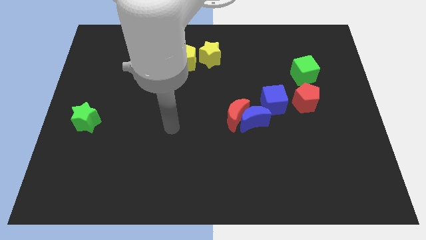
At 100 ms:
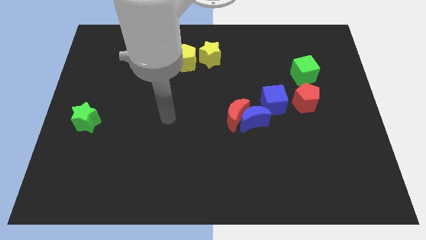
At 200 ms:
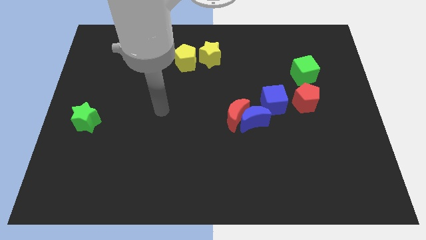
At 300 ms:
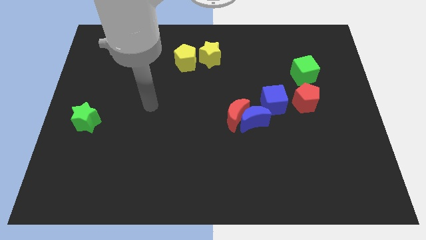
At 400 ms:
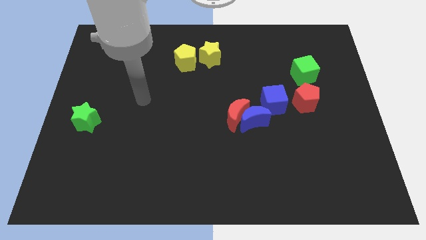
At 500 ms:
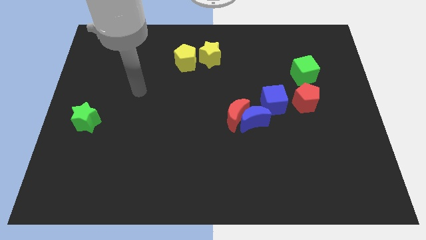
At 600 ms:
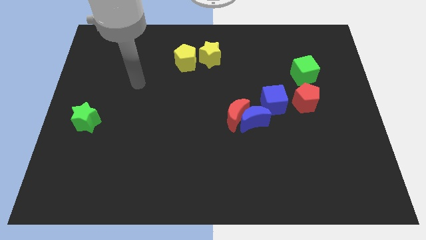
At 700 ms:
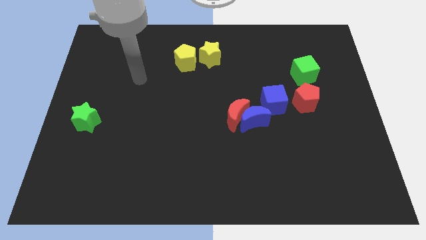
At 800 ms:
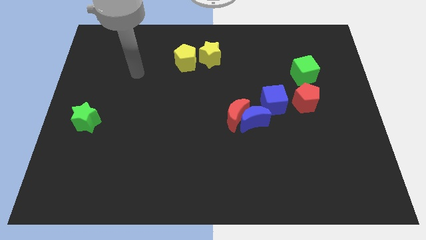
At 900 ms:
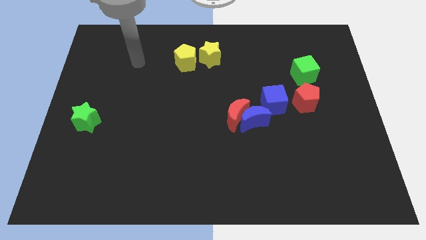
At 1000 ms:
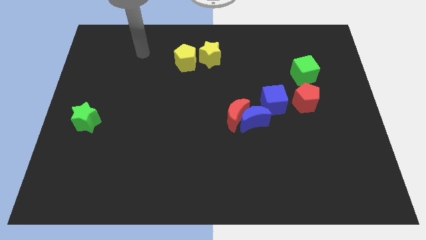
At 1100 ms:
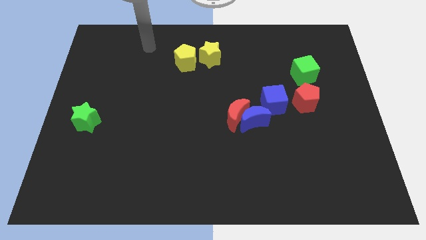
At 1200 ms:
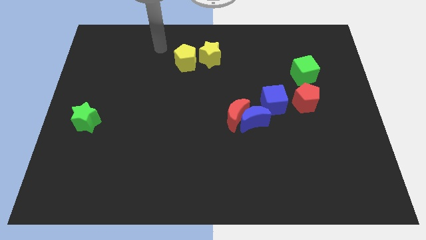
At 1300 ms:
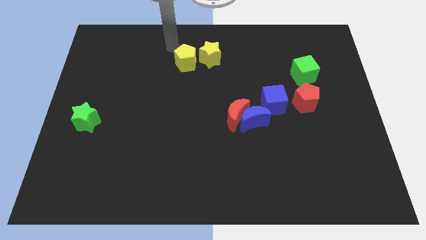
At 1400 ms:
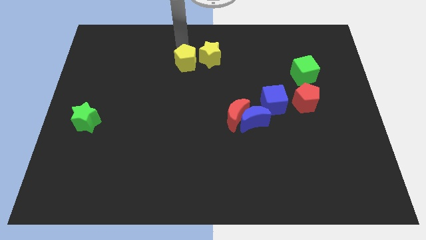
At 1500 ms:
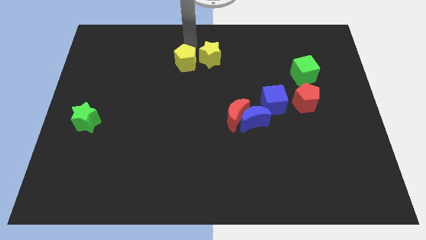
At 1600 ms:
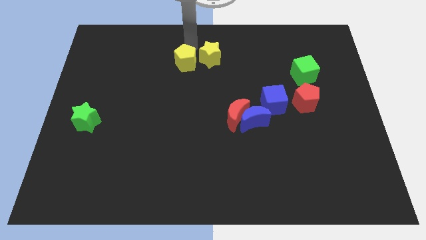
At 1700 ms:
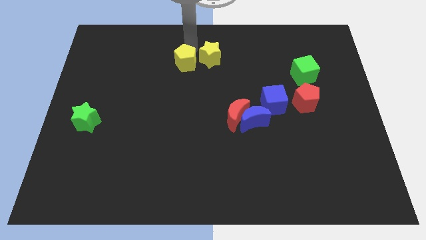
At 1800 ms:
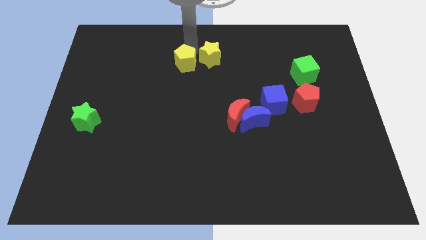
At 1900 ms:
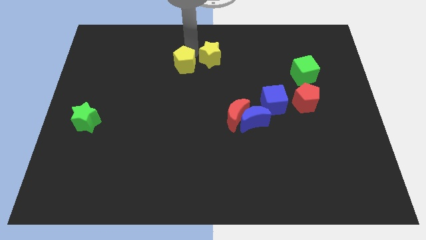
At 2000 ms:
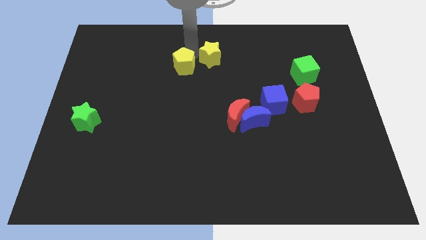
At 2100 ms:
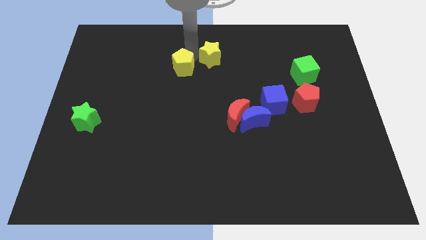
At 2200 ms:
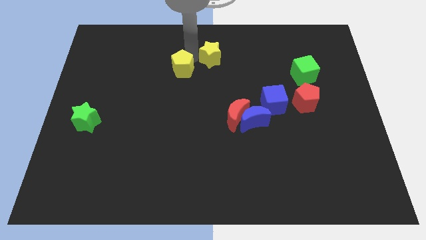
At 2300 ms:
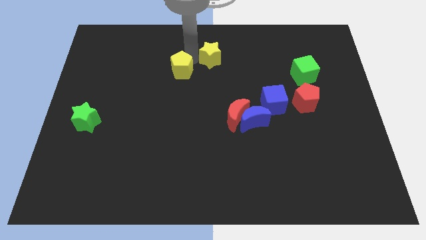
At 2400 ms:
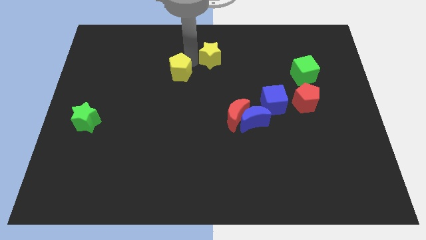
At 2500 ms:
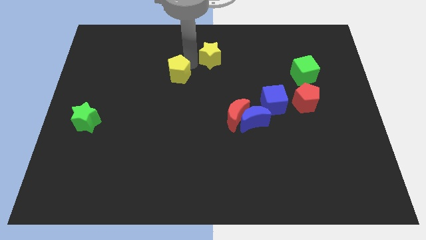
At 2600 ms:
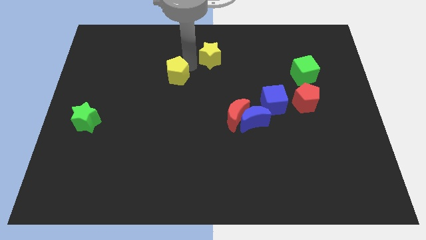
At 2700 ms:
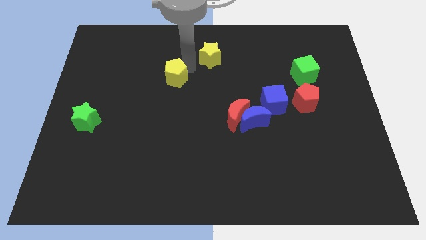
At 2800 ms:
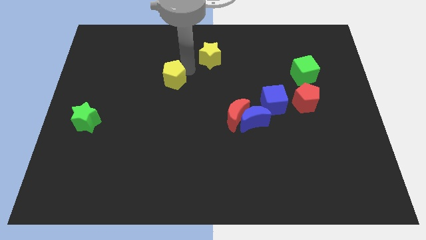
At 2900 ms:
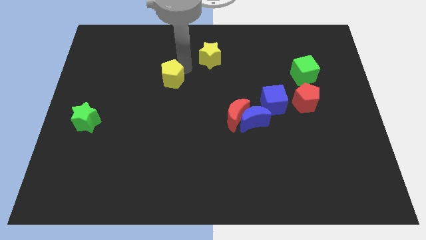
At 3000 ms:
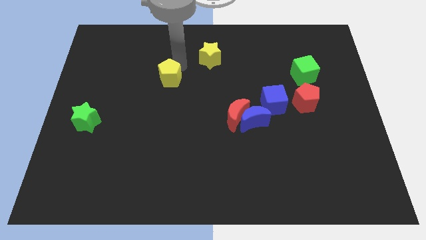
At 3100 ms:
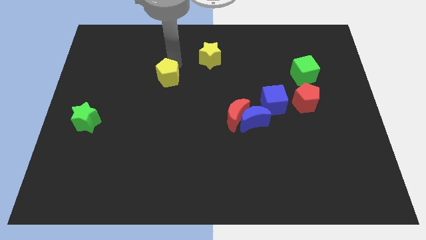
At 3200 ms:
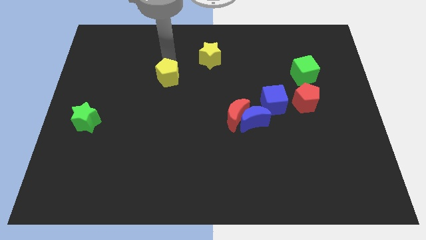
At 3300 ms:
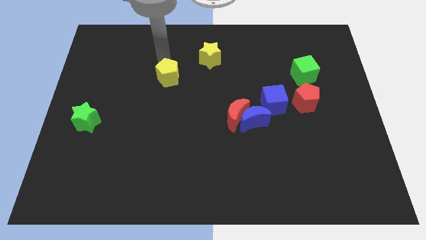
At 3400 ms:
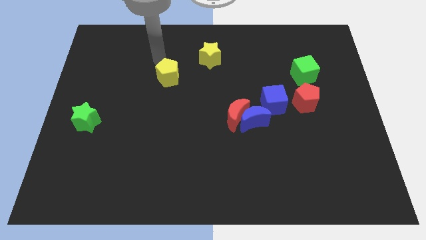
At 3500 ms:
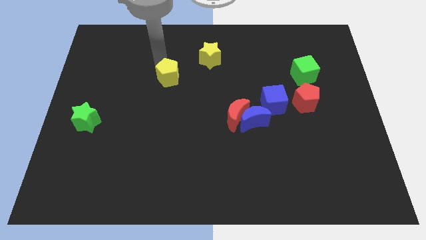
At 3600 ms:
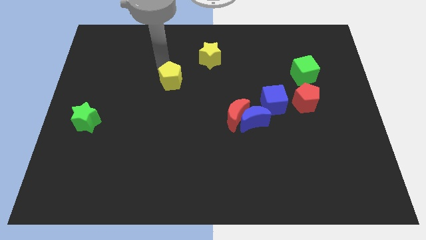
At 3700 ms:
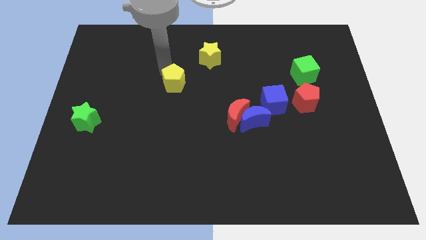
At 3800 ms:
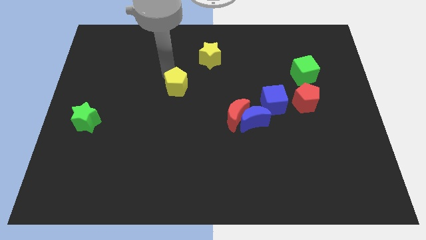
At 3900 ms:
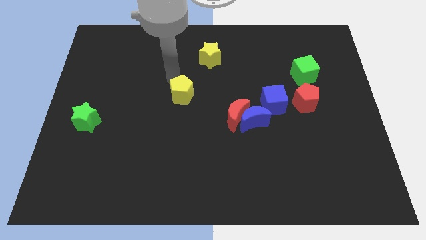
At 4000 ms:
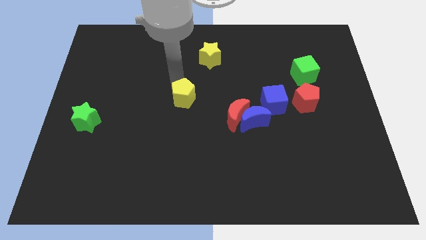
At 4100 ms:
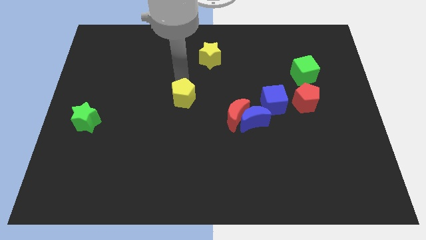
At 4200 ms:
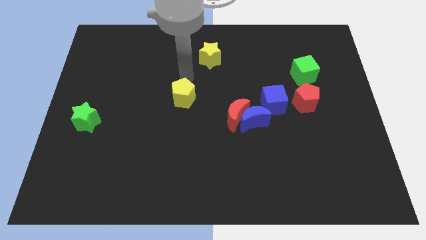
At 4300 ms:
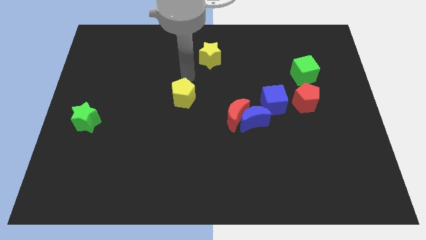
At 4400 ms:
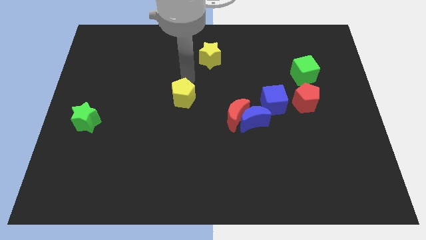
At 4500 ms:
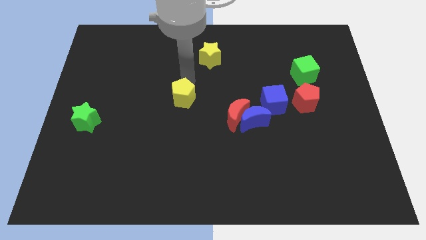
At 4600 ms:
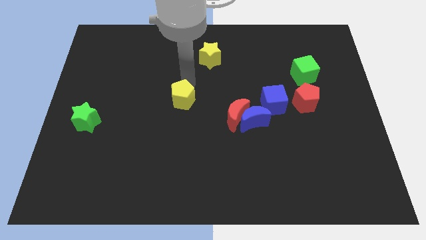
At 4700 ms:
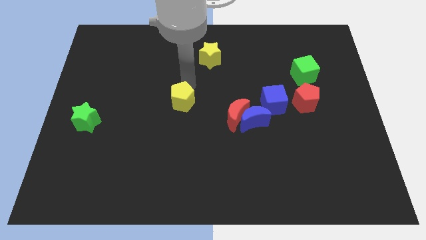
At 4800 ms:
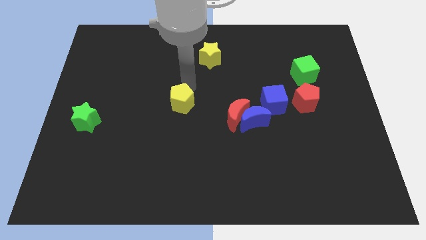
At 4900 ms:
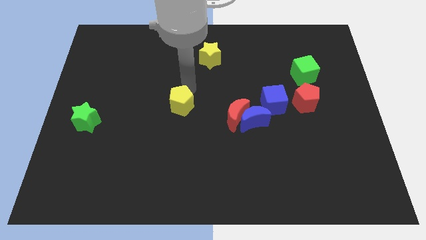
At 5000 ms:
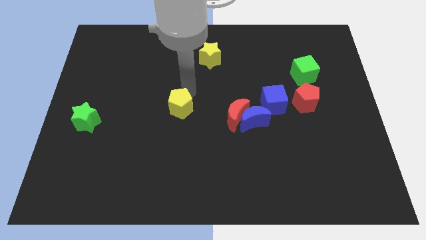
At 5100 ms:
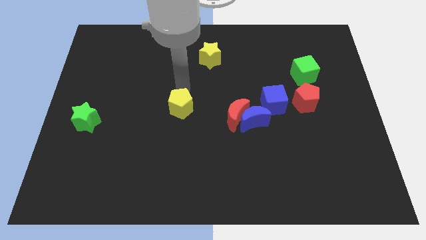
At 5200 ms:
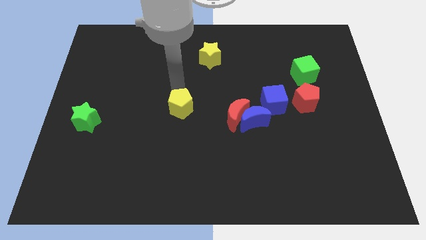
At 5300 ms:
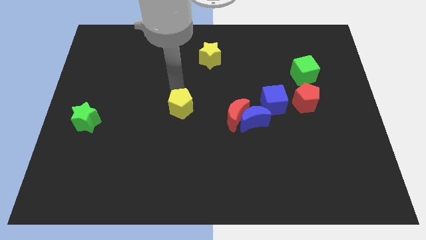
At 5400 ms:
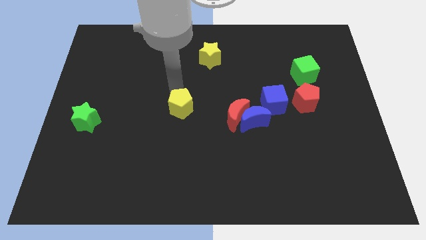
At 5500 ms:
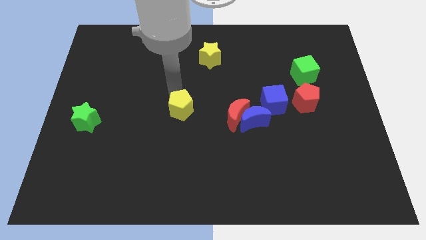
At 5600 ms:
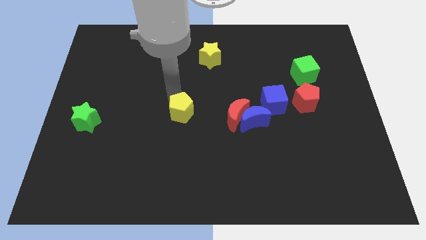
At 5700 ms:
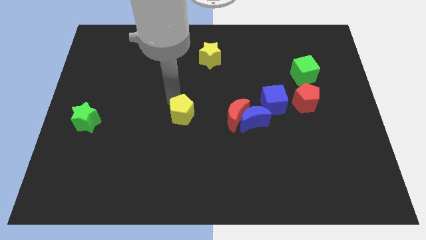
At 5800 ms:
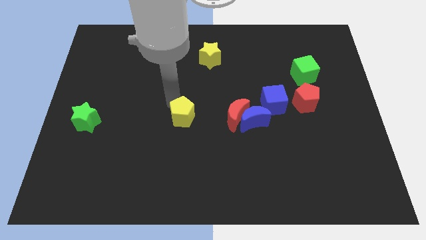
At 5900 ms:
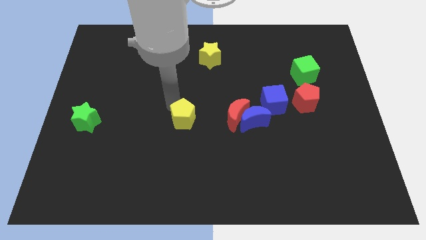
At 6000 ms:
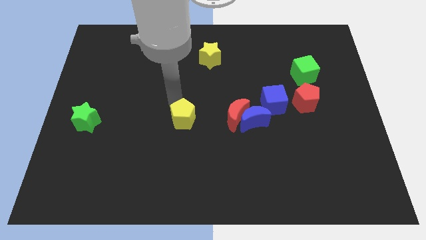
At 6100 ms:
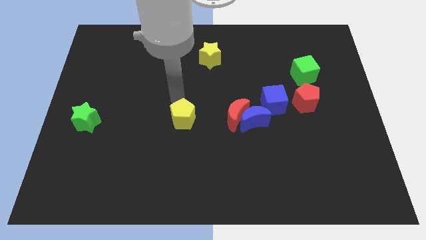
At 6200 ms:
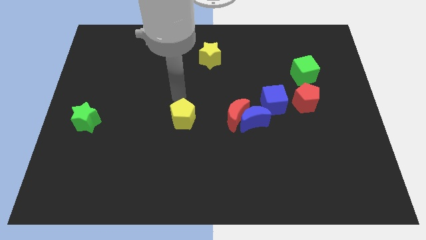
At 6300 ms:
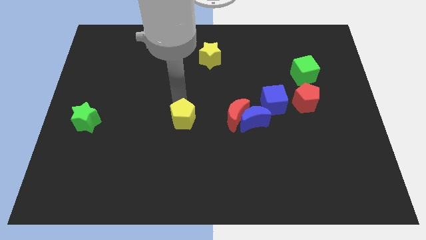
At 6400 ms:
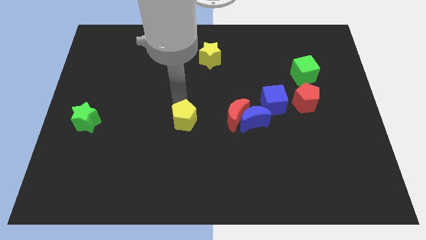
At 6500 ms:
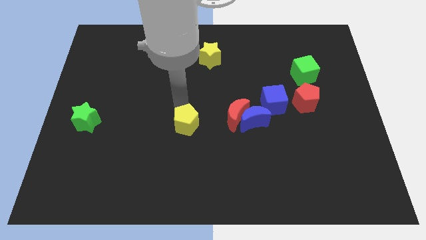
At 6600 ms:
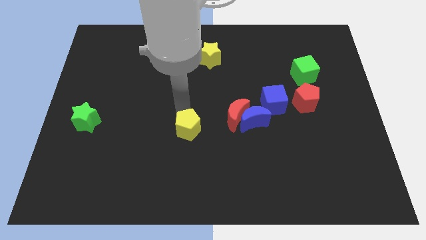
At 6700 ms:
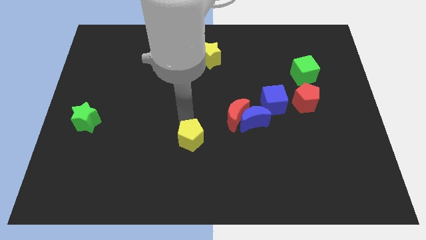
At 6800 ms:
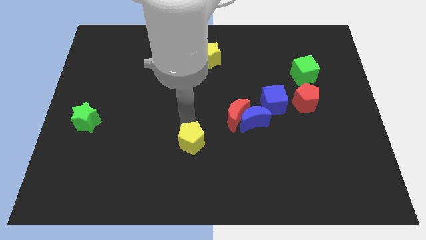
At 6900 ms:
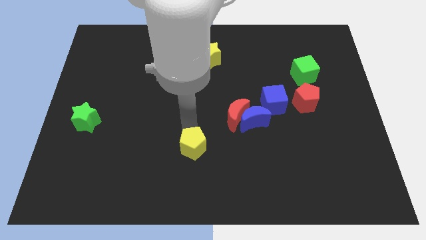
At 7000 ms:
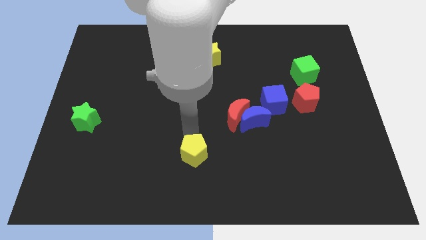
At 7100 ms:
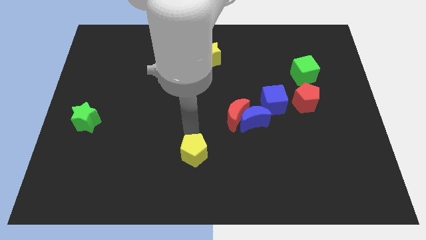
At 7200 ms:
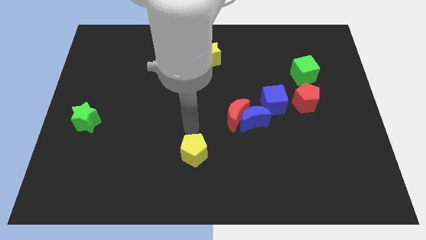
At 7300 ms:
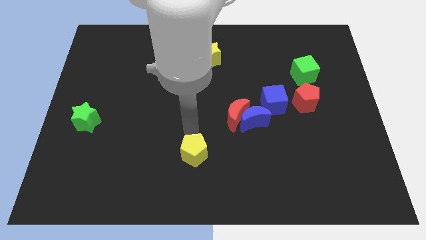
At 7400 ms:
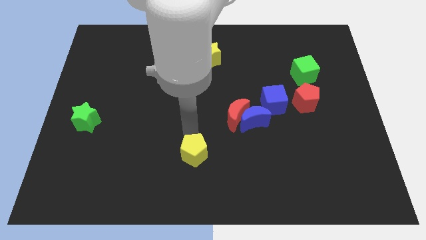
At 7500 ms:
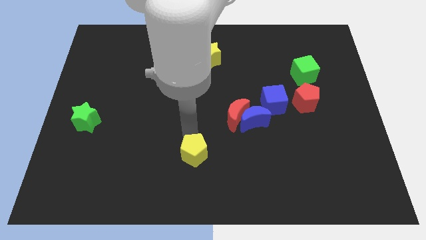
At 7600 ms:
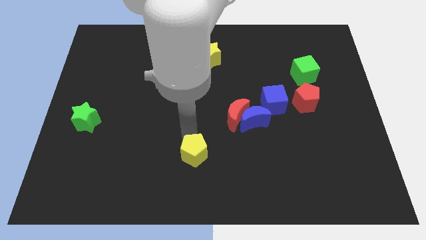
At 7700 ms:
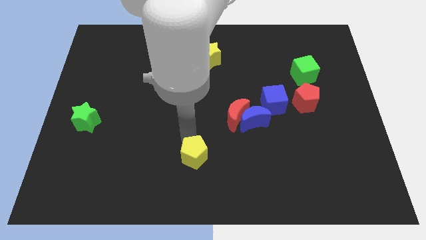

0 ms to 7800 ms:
put the yellow pentagon to the bottom side
